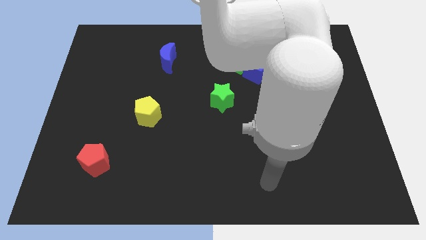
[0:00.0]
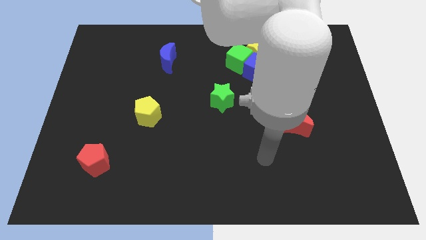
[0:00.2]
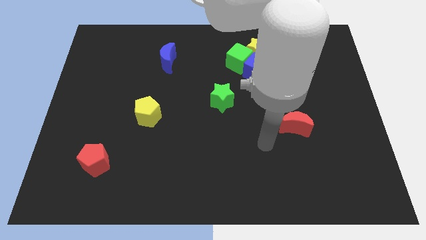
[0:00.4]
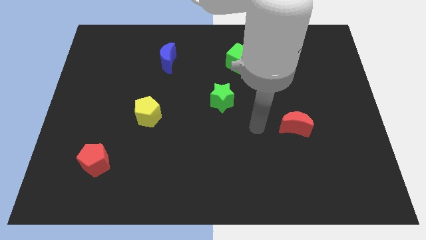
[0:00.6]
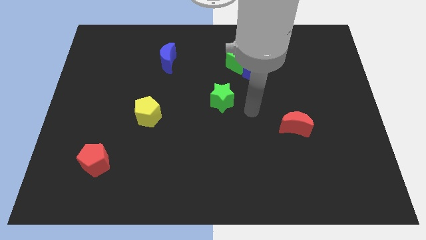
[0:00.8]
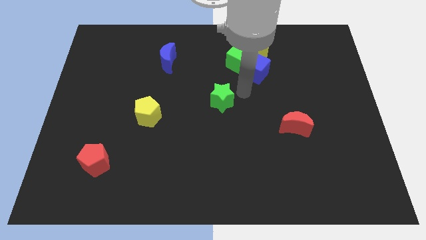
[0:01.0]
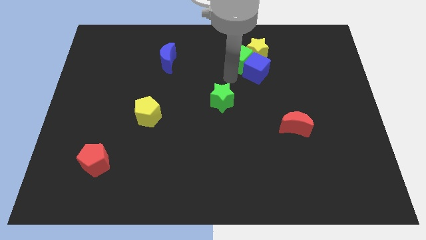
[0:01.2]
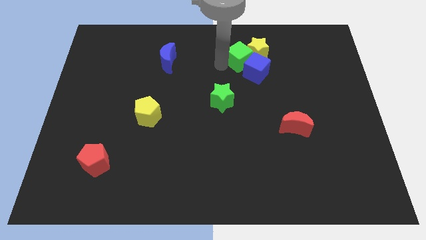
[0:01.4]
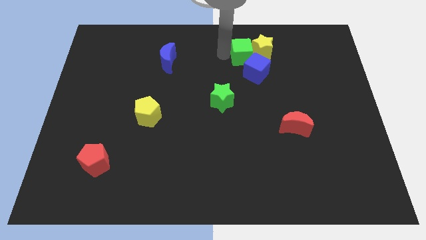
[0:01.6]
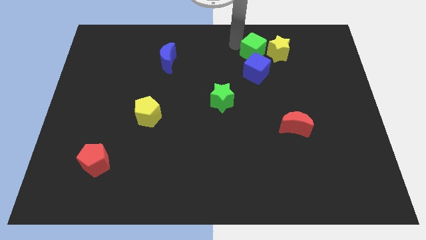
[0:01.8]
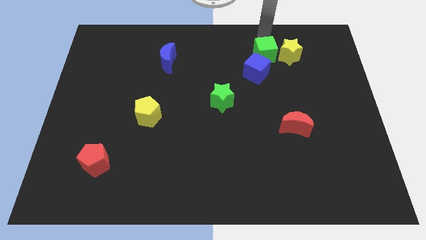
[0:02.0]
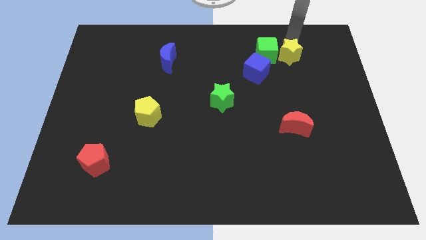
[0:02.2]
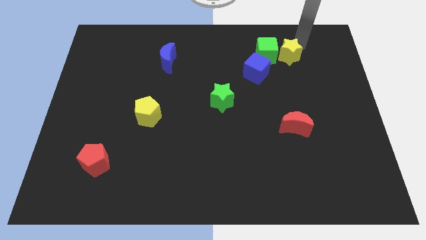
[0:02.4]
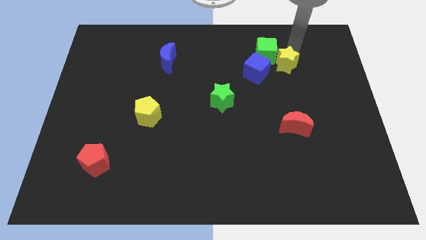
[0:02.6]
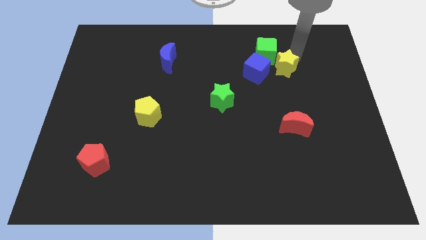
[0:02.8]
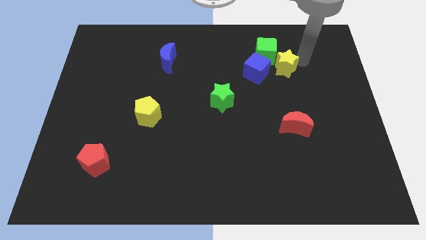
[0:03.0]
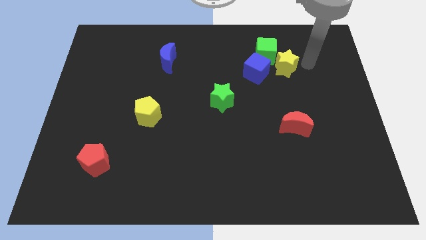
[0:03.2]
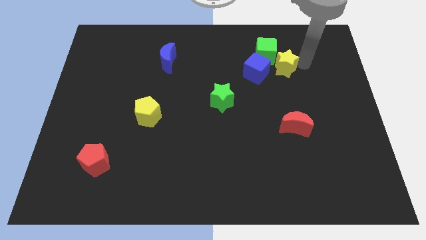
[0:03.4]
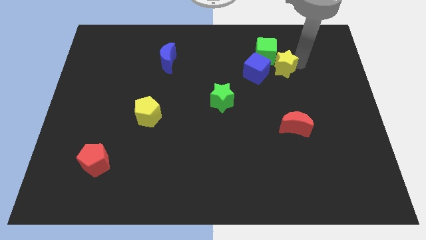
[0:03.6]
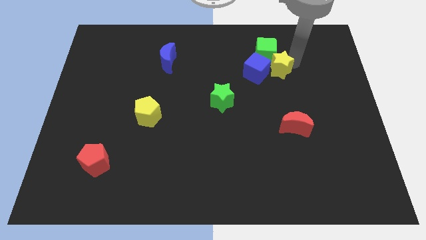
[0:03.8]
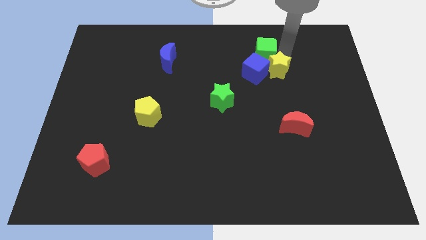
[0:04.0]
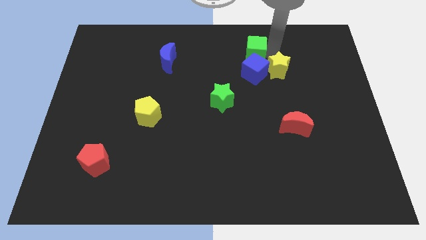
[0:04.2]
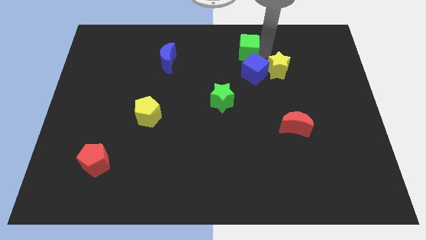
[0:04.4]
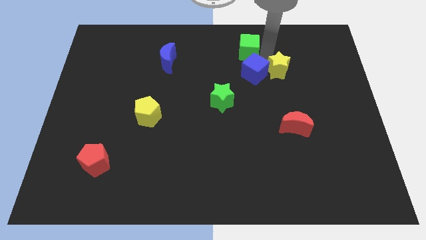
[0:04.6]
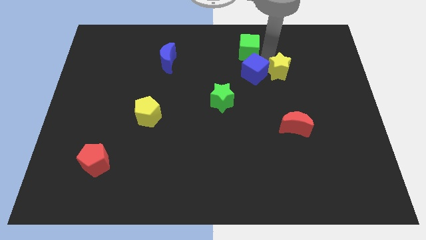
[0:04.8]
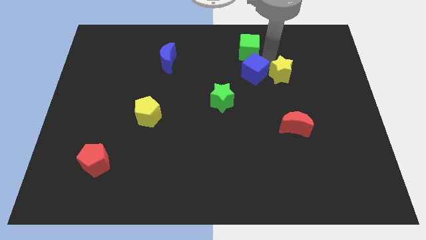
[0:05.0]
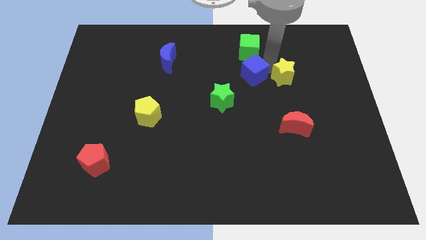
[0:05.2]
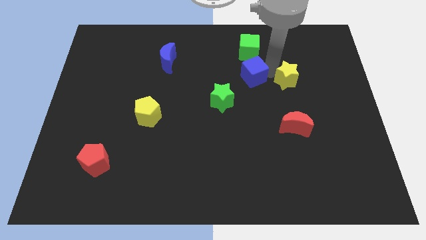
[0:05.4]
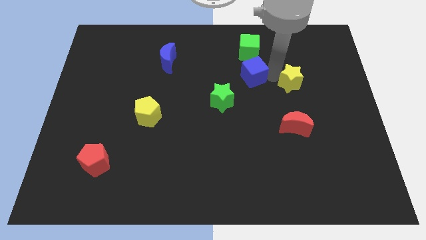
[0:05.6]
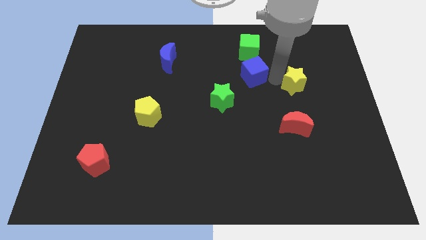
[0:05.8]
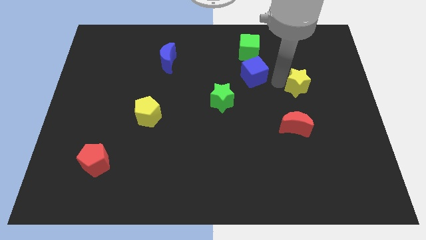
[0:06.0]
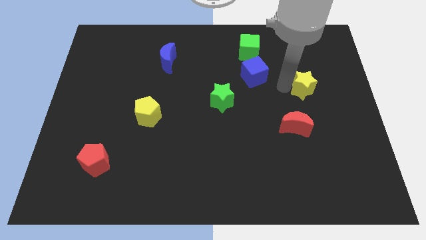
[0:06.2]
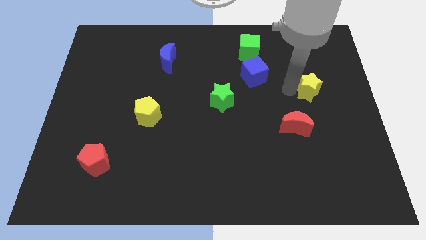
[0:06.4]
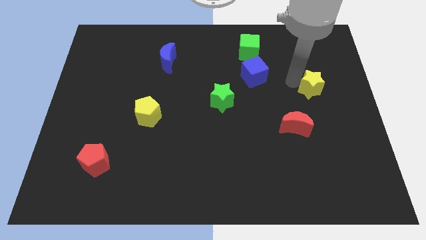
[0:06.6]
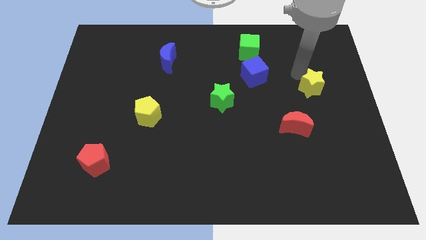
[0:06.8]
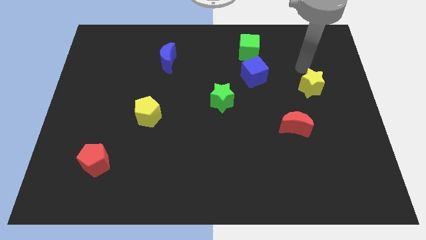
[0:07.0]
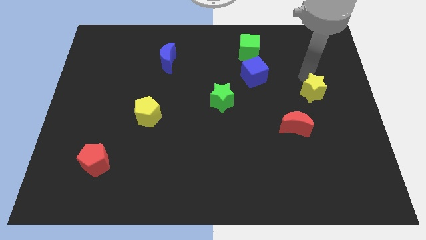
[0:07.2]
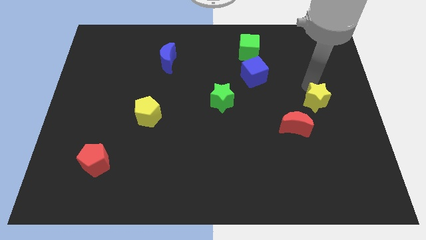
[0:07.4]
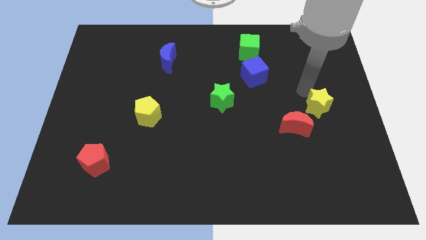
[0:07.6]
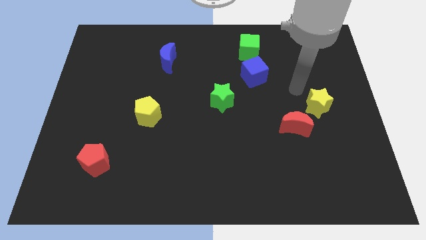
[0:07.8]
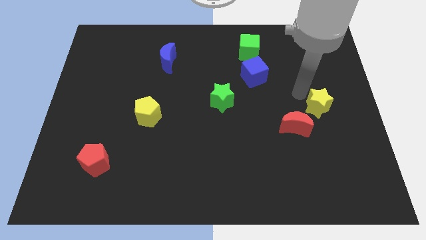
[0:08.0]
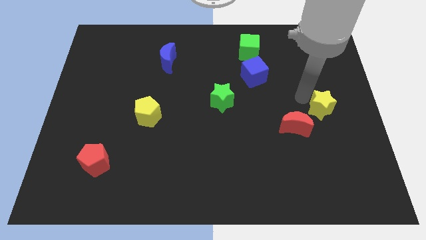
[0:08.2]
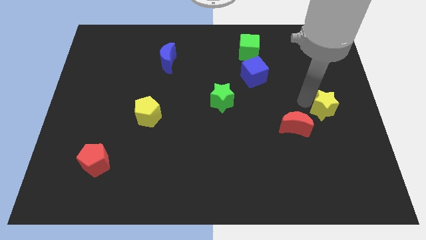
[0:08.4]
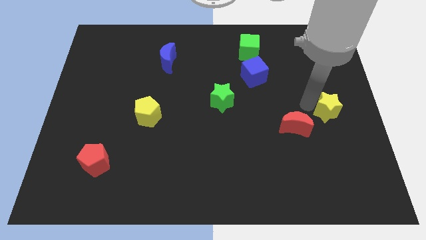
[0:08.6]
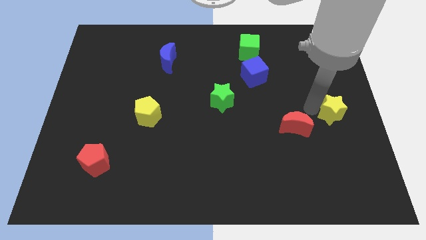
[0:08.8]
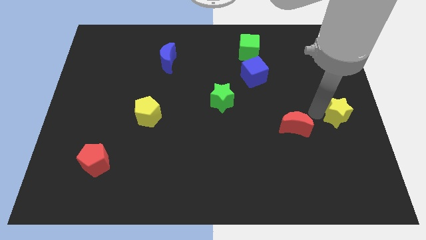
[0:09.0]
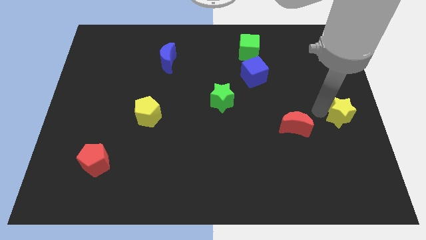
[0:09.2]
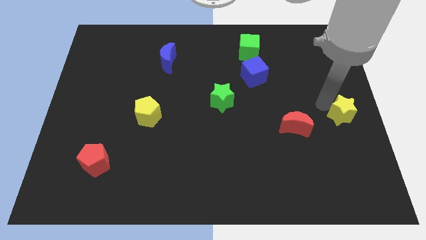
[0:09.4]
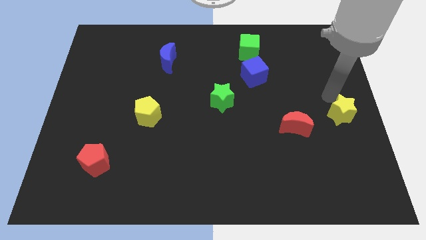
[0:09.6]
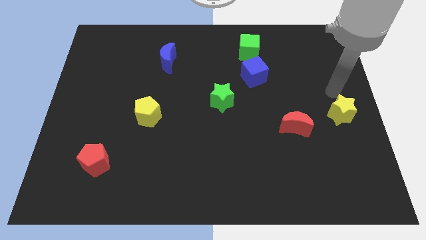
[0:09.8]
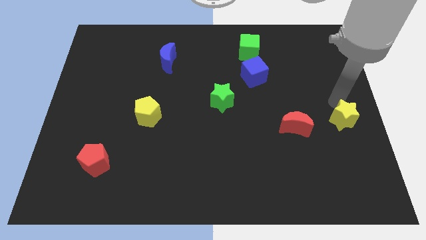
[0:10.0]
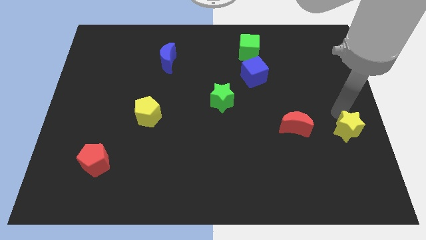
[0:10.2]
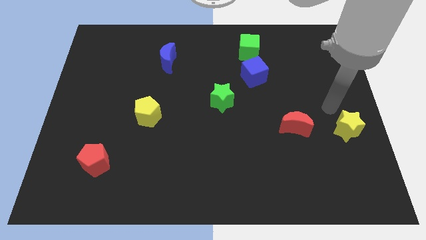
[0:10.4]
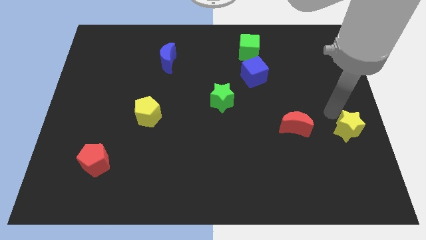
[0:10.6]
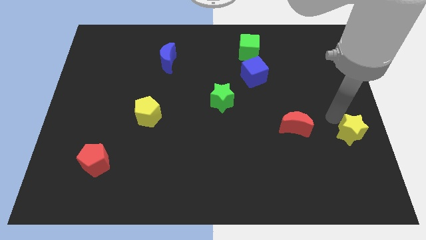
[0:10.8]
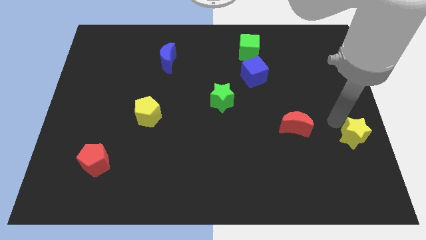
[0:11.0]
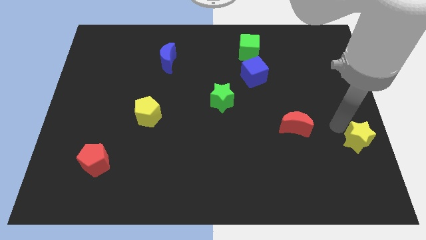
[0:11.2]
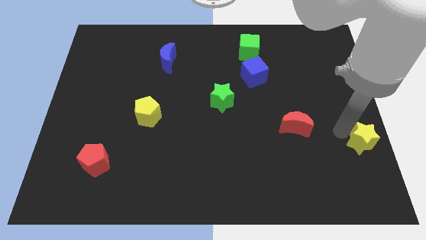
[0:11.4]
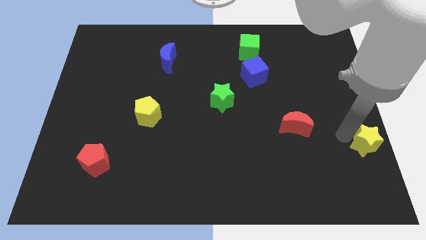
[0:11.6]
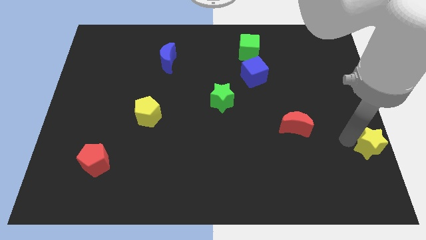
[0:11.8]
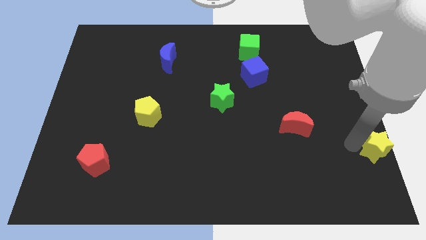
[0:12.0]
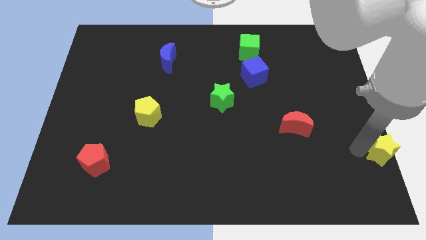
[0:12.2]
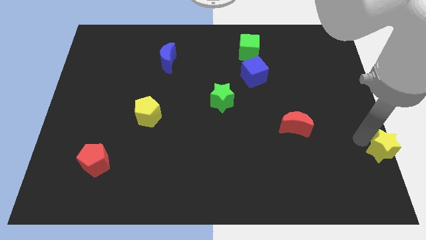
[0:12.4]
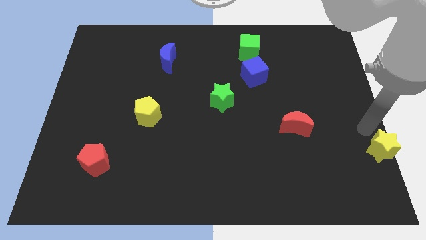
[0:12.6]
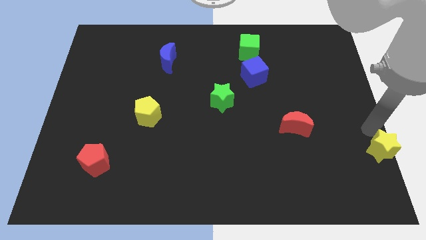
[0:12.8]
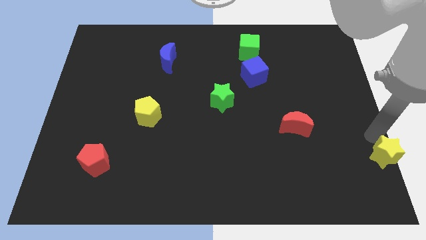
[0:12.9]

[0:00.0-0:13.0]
slide the yellow star to the bottom right
